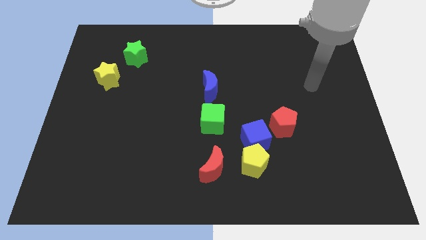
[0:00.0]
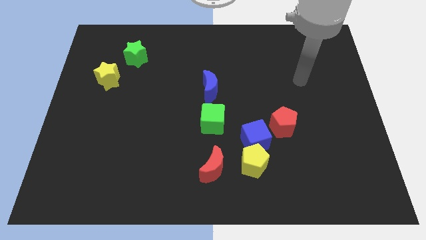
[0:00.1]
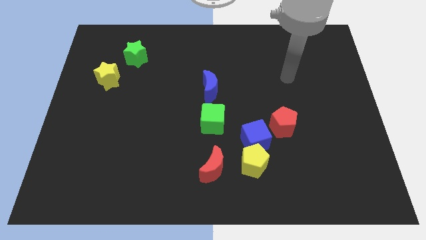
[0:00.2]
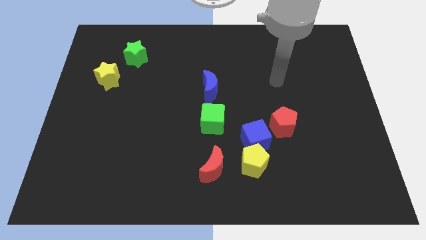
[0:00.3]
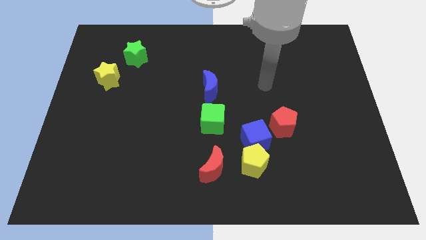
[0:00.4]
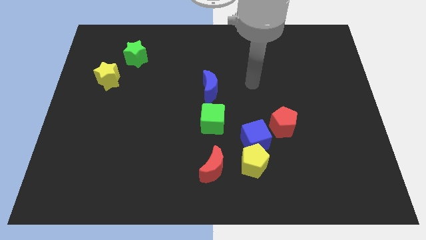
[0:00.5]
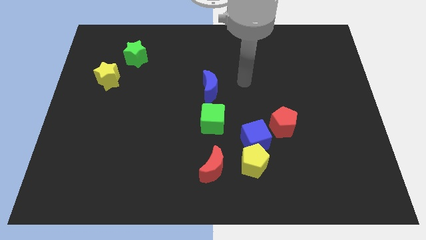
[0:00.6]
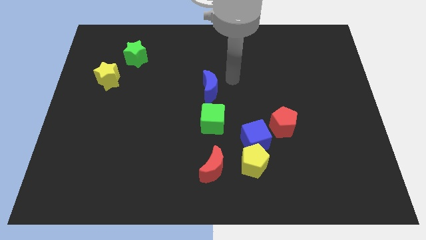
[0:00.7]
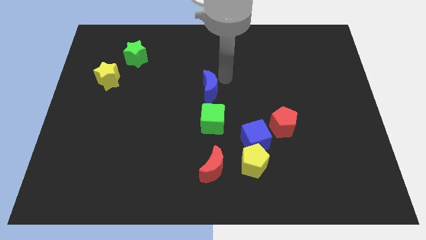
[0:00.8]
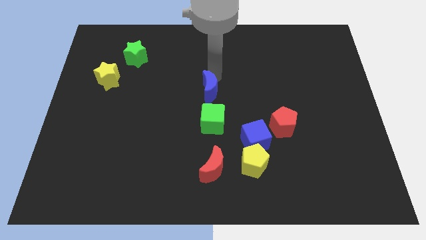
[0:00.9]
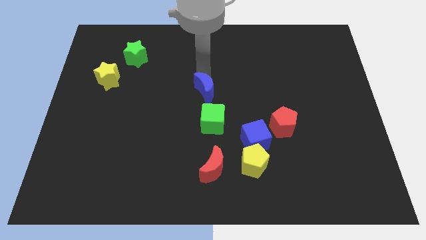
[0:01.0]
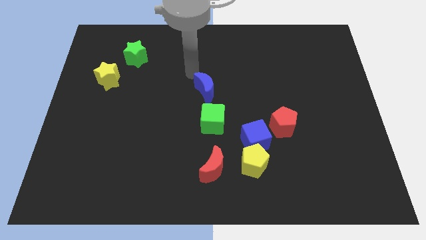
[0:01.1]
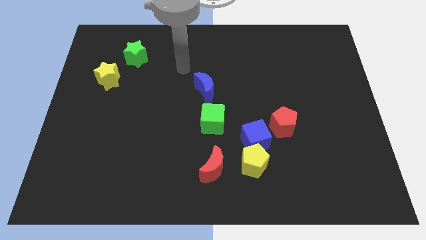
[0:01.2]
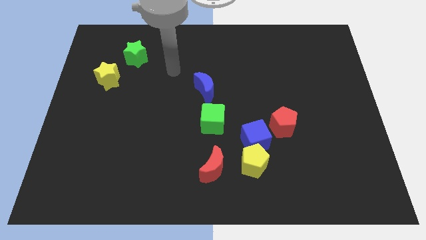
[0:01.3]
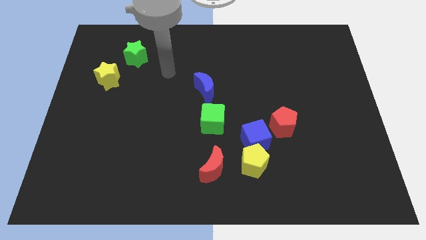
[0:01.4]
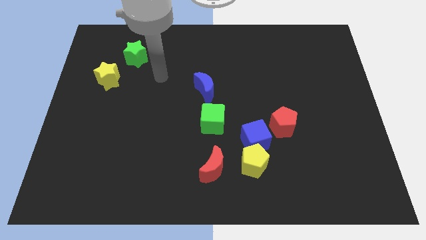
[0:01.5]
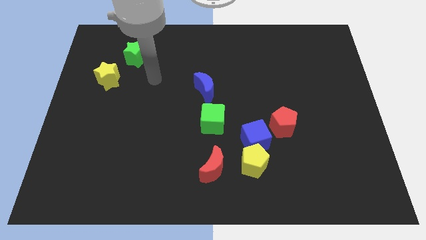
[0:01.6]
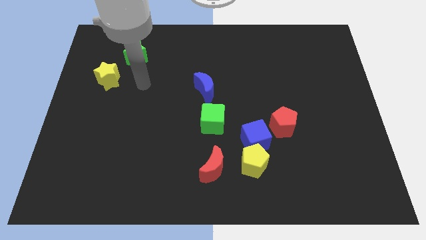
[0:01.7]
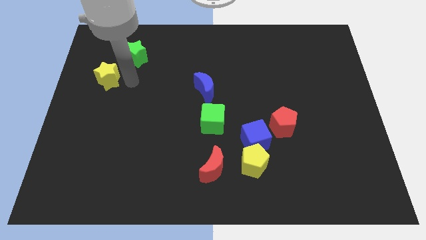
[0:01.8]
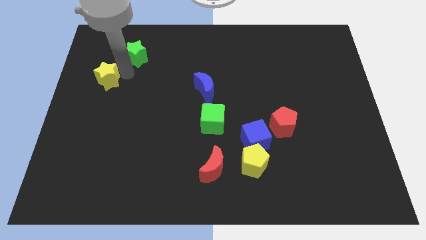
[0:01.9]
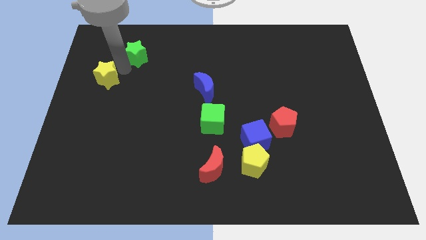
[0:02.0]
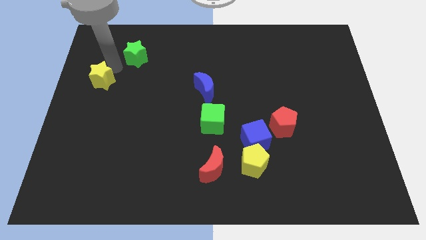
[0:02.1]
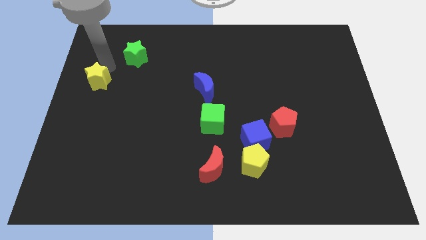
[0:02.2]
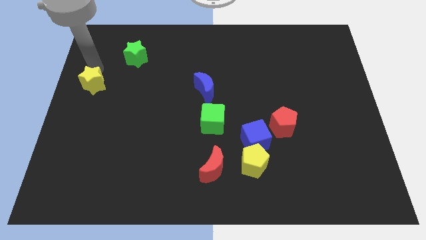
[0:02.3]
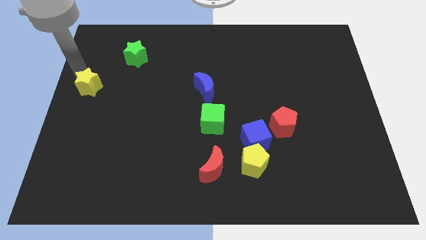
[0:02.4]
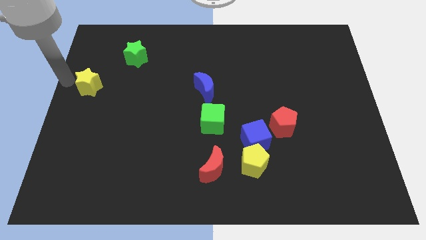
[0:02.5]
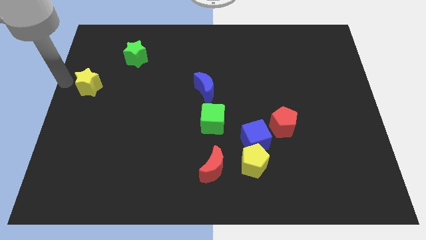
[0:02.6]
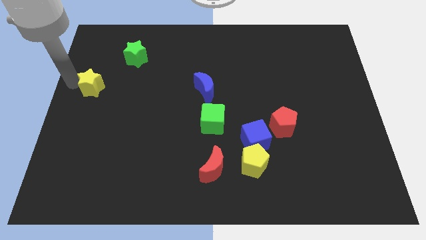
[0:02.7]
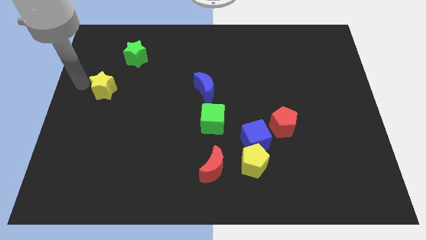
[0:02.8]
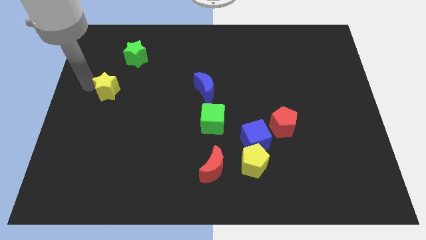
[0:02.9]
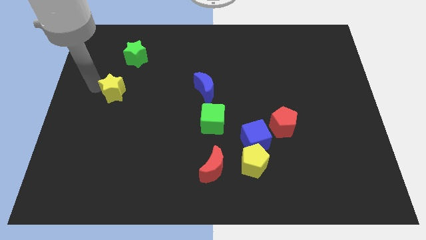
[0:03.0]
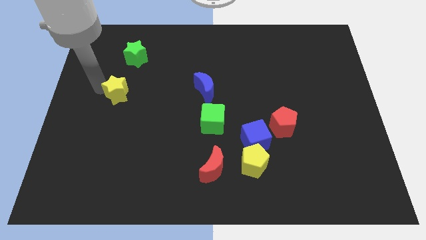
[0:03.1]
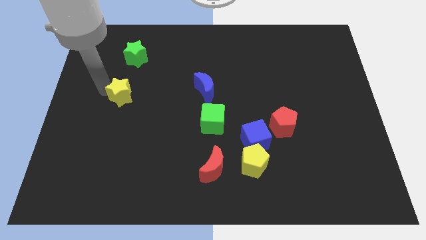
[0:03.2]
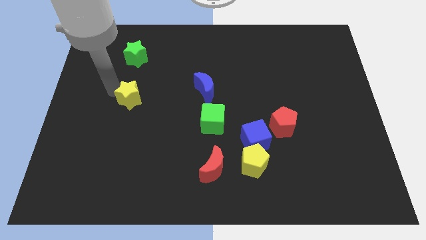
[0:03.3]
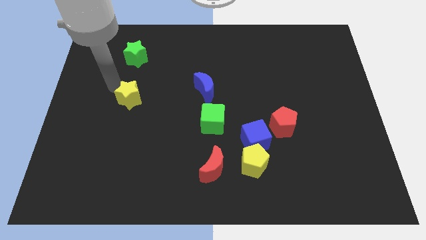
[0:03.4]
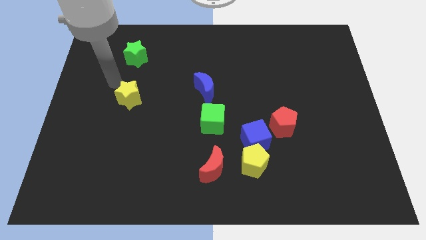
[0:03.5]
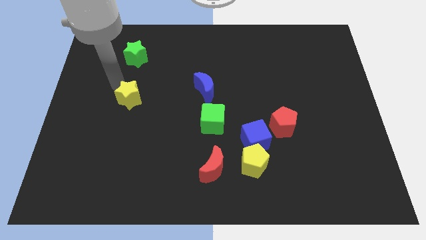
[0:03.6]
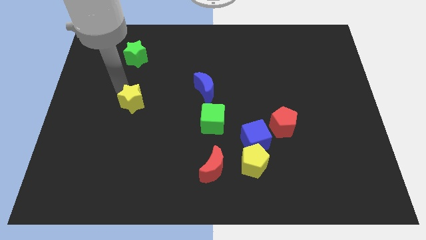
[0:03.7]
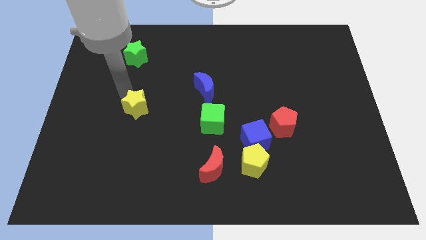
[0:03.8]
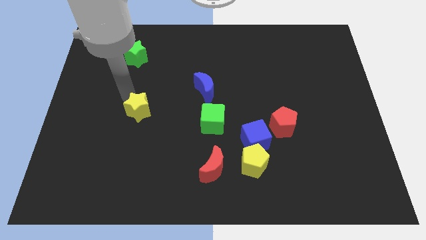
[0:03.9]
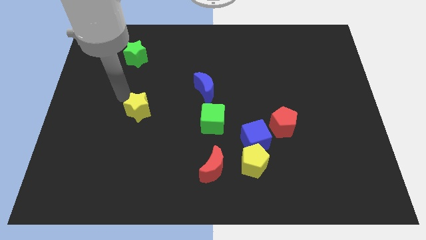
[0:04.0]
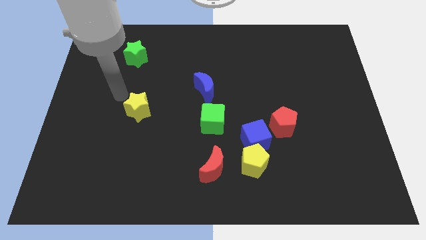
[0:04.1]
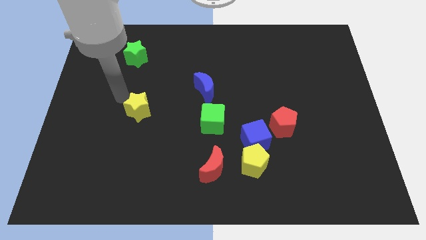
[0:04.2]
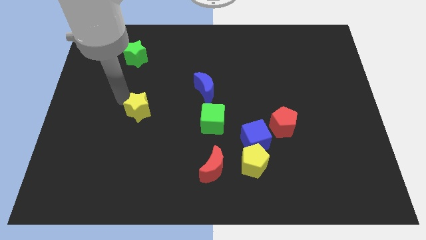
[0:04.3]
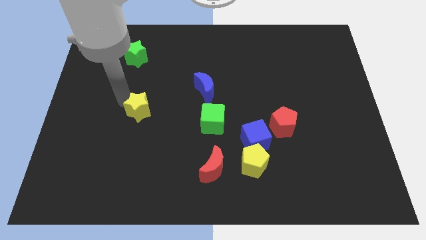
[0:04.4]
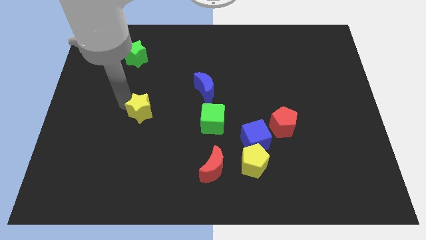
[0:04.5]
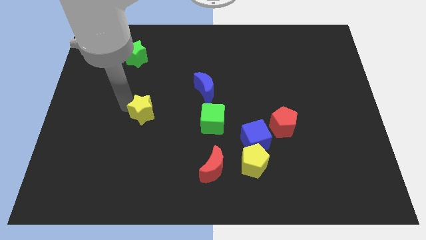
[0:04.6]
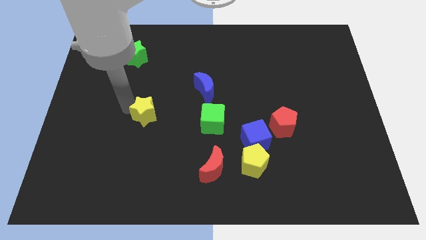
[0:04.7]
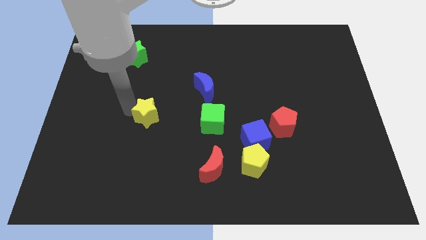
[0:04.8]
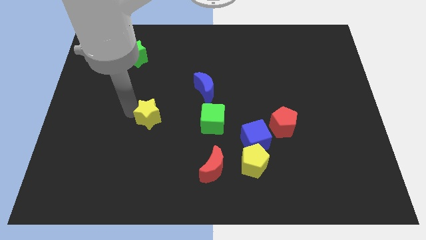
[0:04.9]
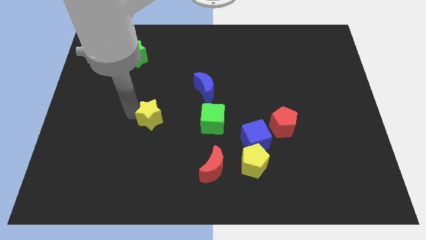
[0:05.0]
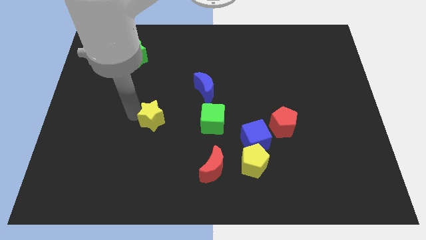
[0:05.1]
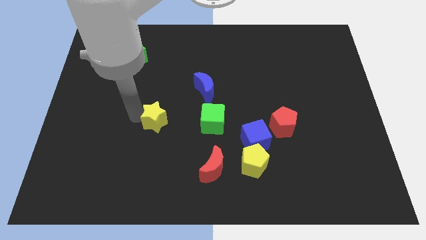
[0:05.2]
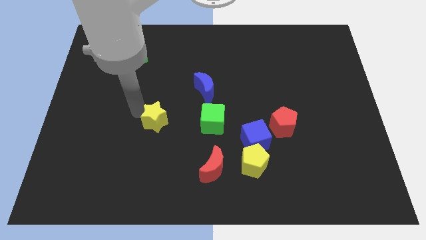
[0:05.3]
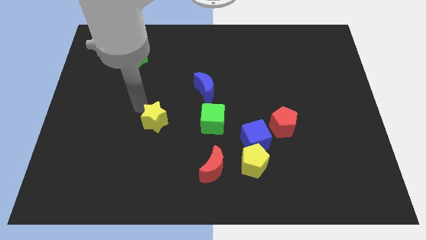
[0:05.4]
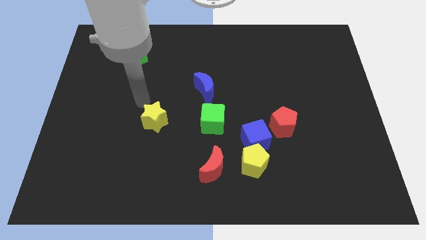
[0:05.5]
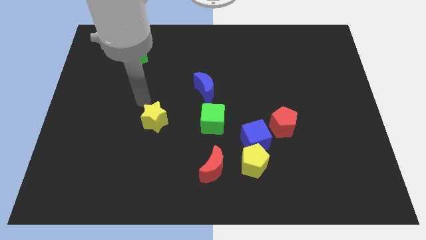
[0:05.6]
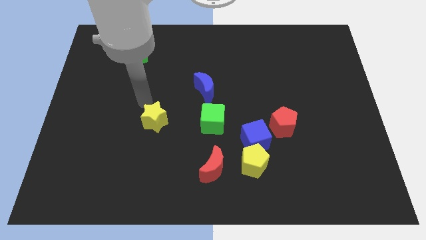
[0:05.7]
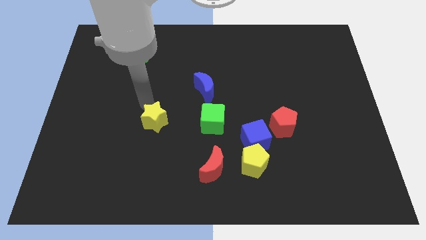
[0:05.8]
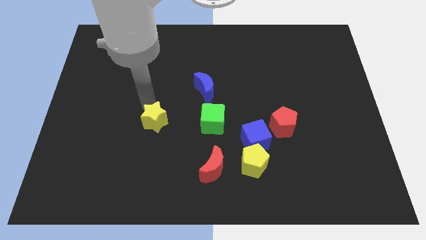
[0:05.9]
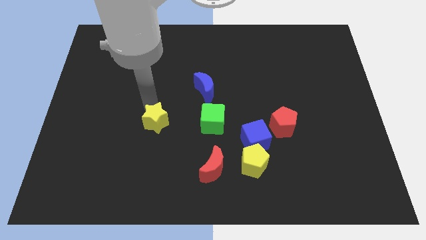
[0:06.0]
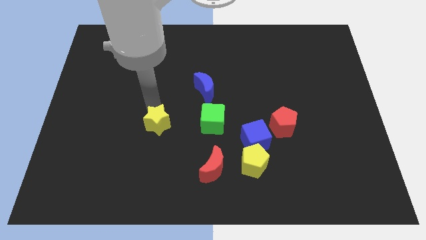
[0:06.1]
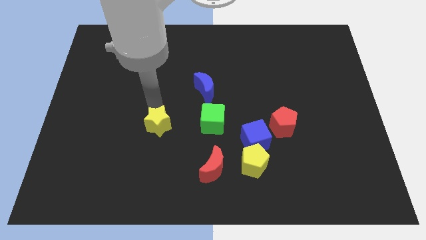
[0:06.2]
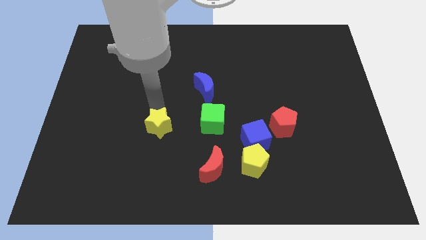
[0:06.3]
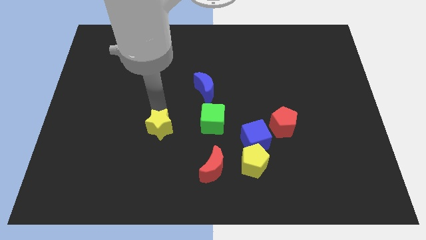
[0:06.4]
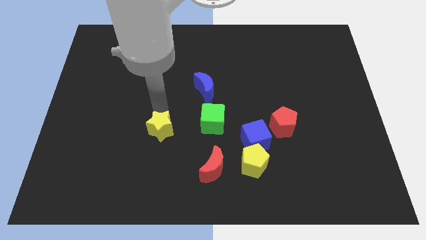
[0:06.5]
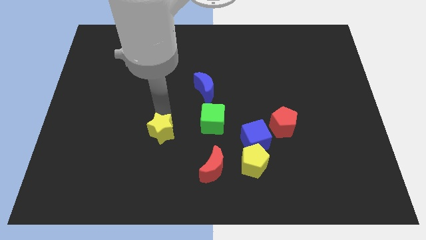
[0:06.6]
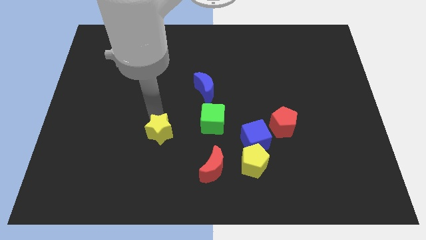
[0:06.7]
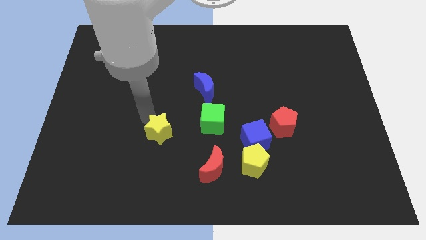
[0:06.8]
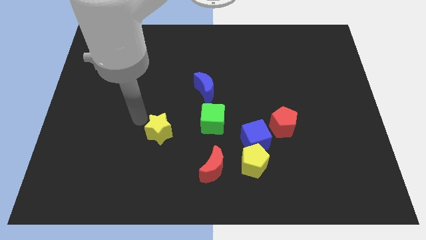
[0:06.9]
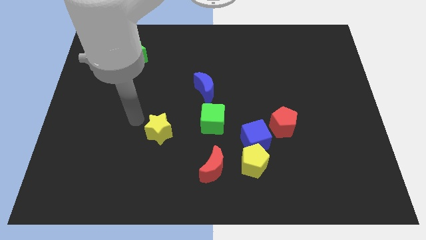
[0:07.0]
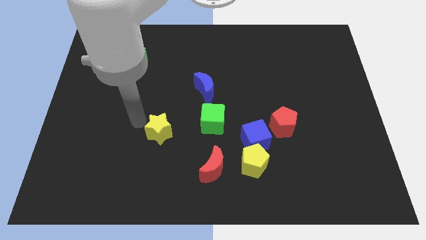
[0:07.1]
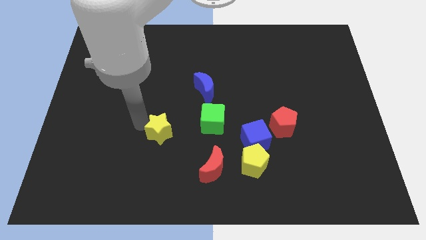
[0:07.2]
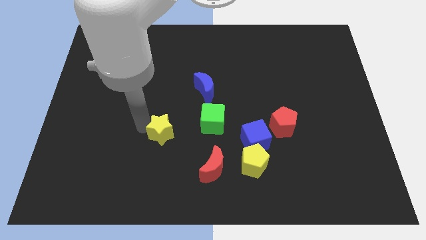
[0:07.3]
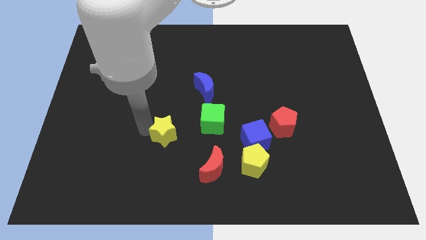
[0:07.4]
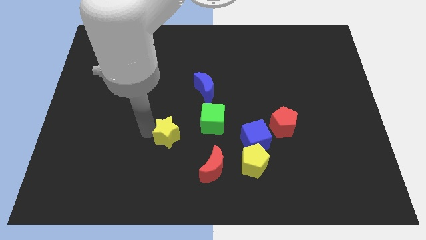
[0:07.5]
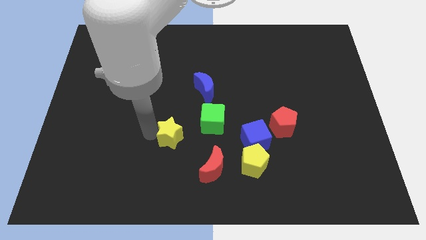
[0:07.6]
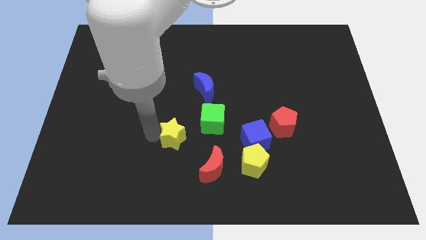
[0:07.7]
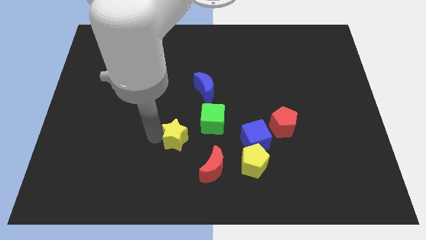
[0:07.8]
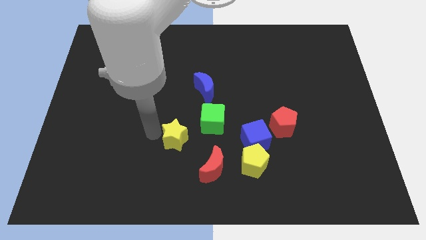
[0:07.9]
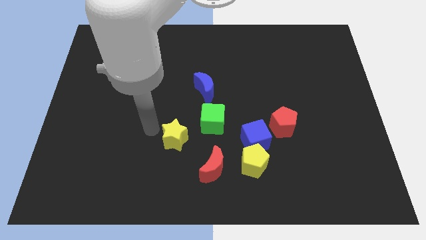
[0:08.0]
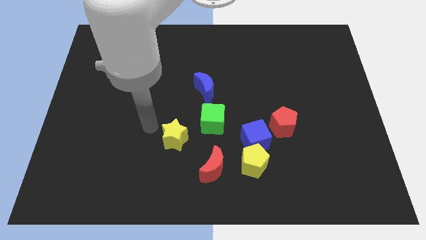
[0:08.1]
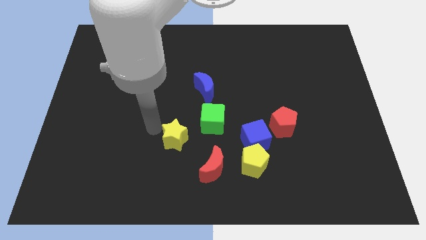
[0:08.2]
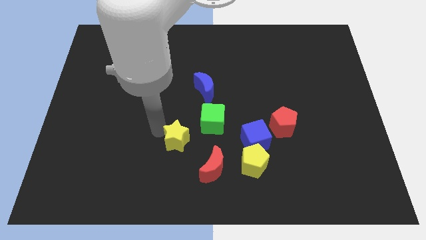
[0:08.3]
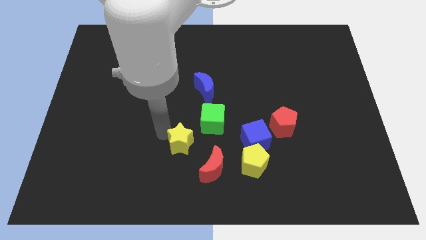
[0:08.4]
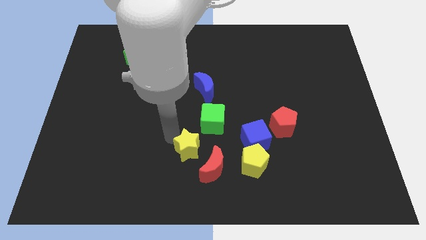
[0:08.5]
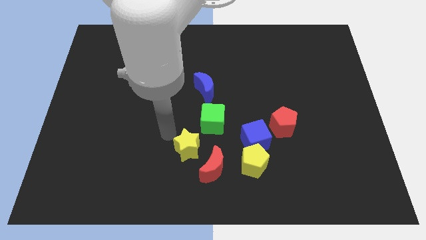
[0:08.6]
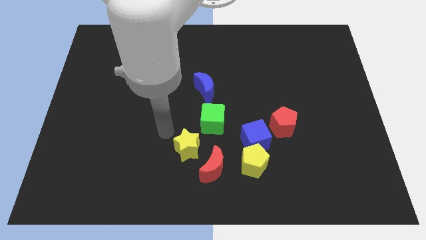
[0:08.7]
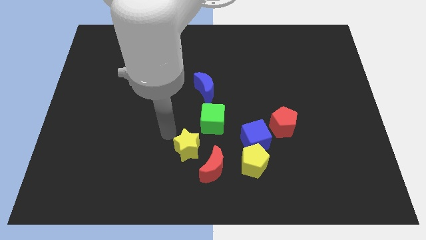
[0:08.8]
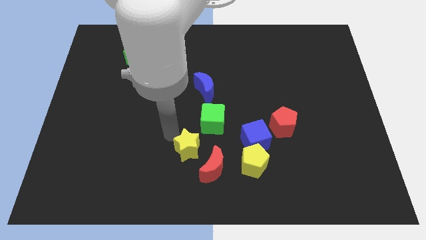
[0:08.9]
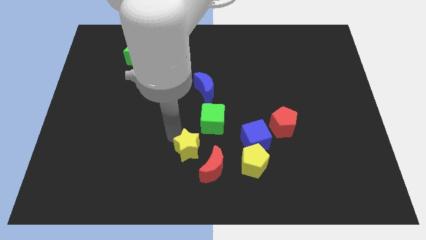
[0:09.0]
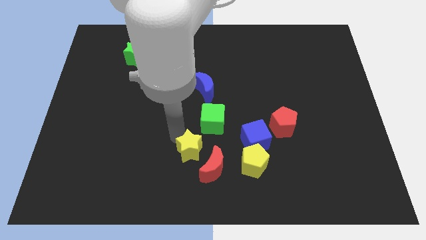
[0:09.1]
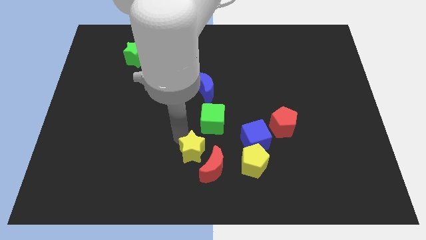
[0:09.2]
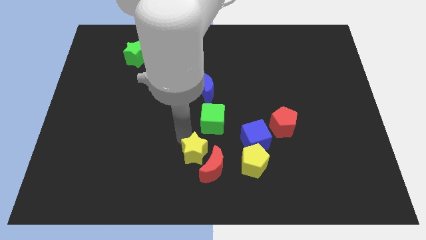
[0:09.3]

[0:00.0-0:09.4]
push the yellow star next to the red moon
